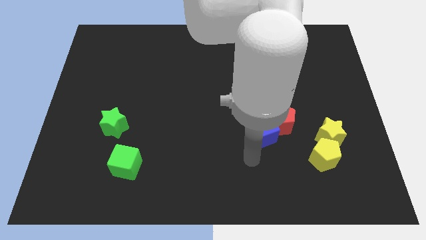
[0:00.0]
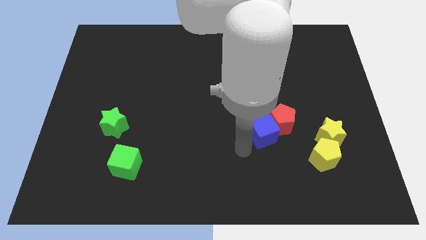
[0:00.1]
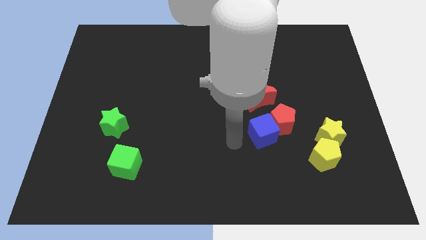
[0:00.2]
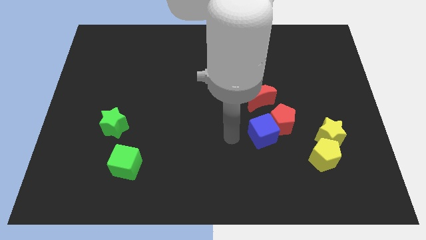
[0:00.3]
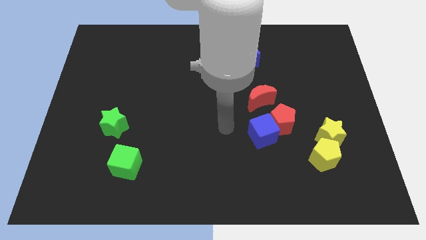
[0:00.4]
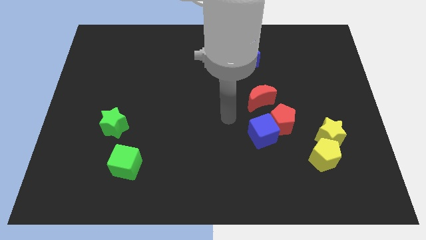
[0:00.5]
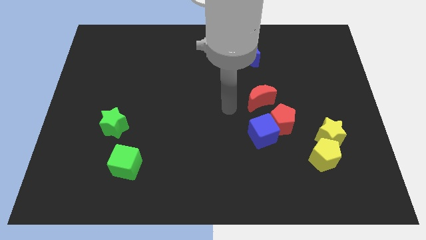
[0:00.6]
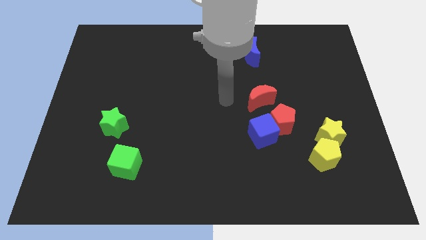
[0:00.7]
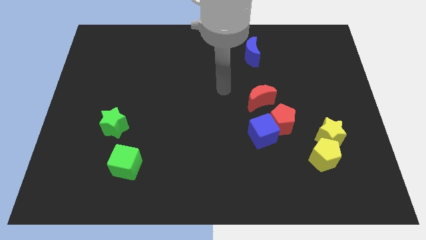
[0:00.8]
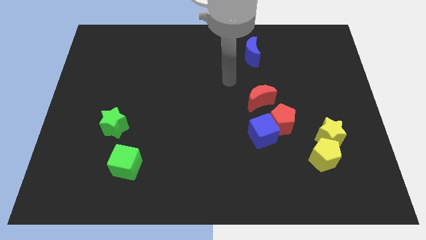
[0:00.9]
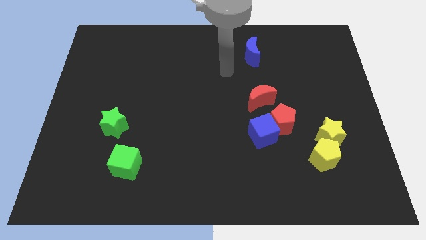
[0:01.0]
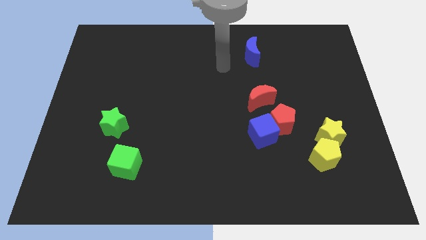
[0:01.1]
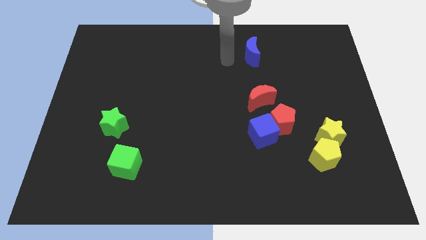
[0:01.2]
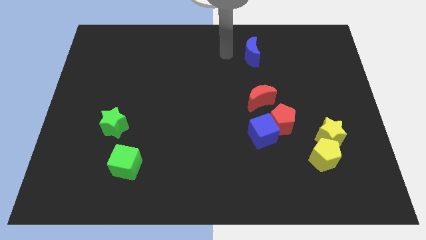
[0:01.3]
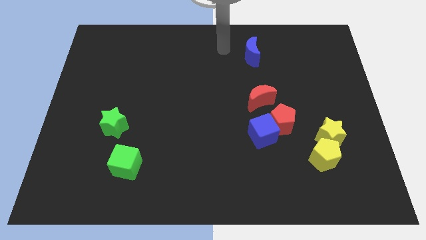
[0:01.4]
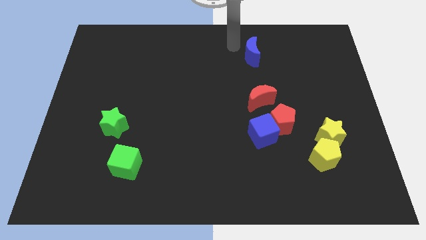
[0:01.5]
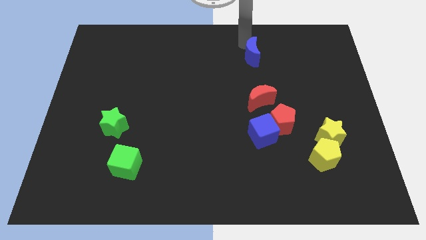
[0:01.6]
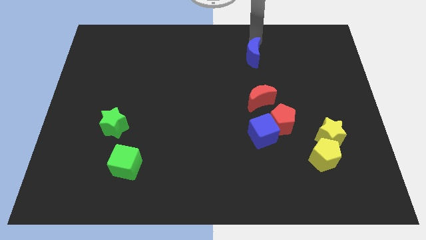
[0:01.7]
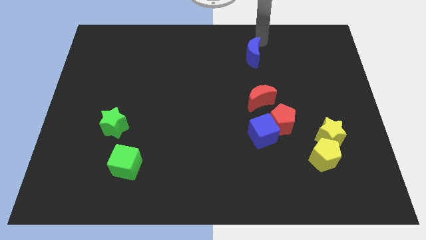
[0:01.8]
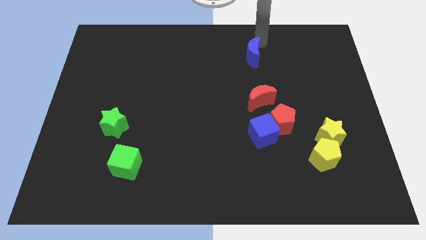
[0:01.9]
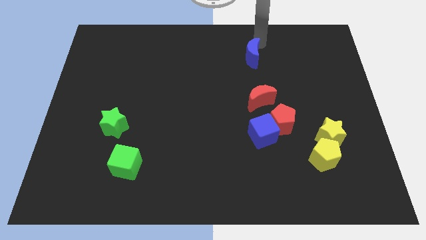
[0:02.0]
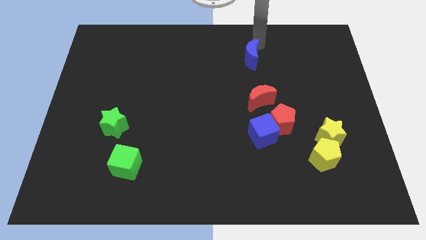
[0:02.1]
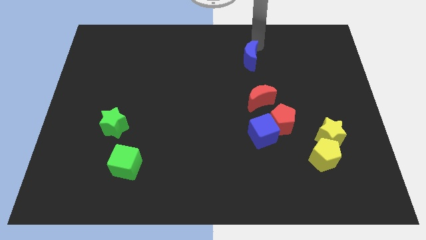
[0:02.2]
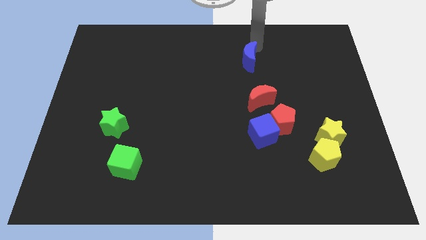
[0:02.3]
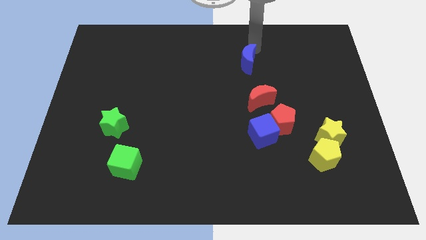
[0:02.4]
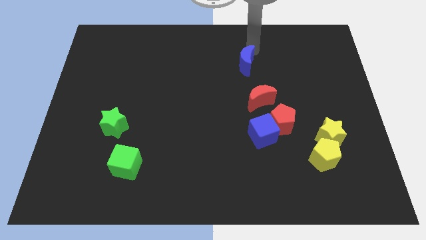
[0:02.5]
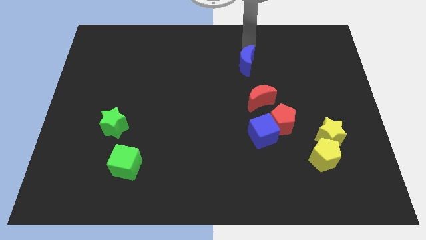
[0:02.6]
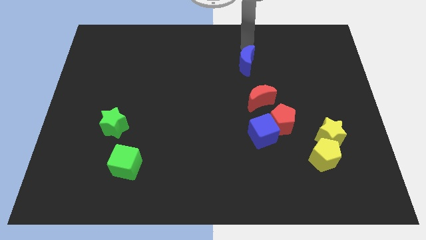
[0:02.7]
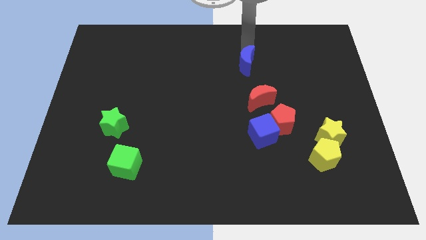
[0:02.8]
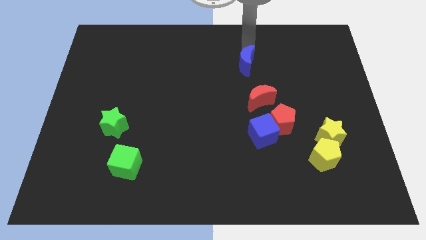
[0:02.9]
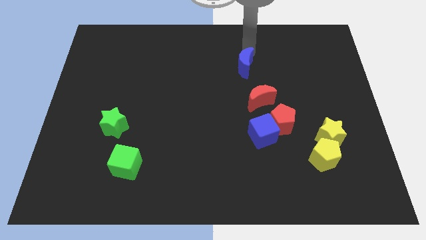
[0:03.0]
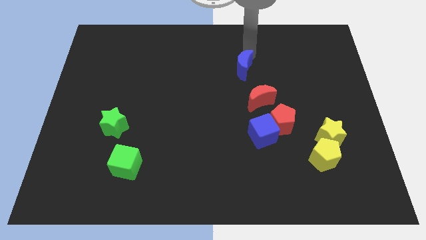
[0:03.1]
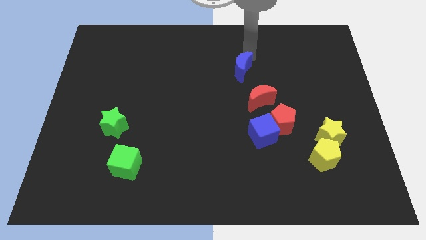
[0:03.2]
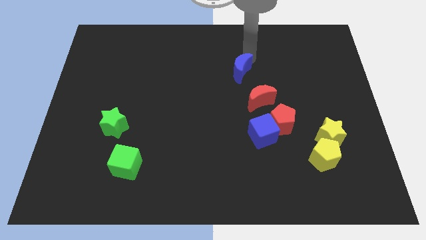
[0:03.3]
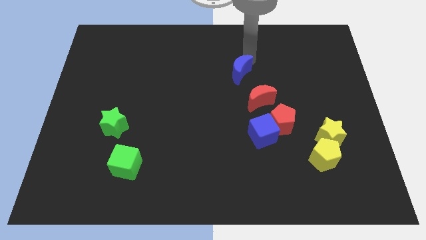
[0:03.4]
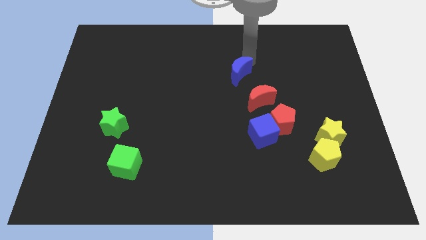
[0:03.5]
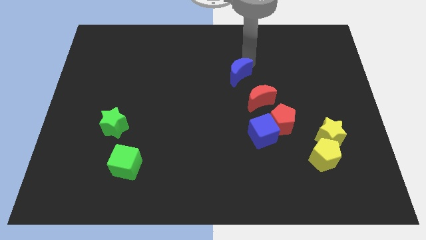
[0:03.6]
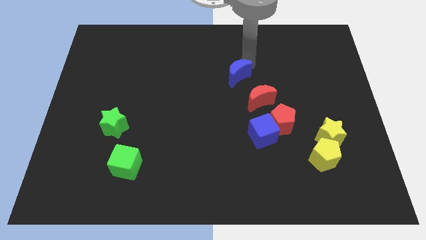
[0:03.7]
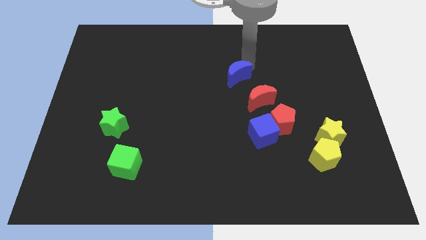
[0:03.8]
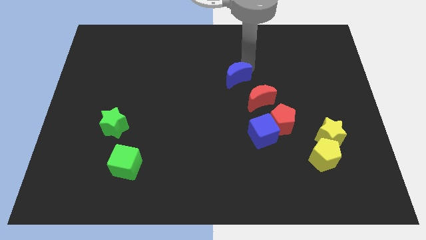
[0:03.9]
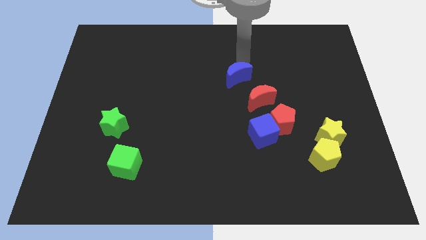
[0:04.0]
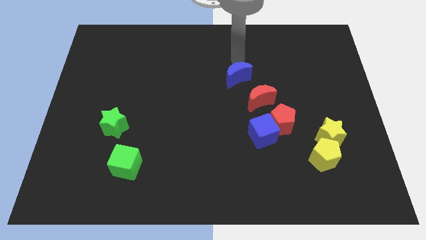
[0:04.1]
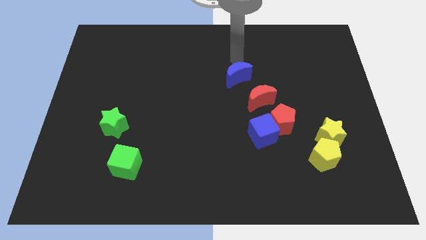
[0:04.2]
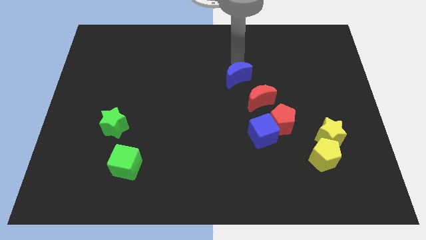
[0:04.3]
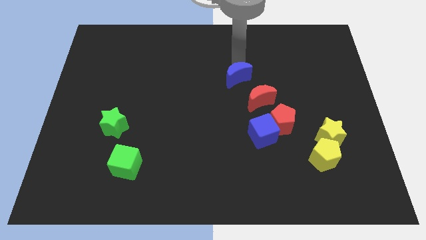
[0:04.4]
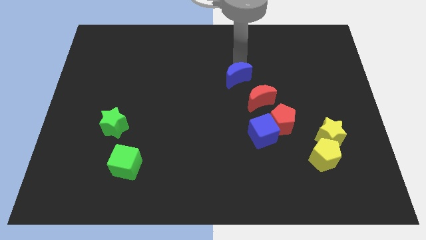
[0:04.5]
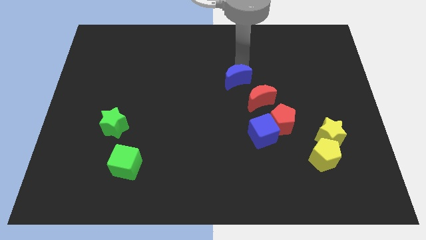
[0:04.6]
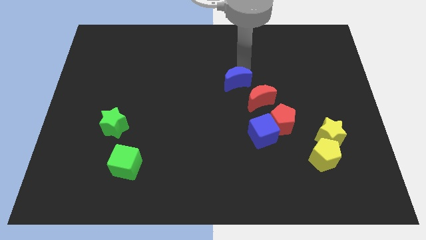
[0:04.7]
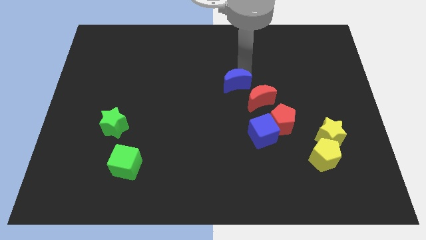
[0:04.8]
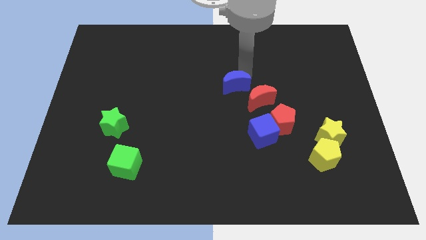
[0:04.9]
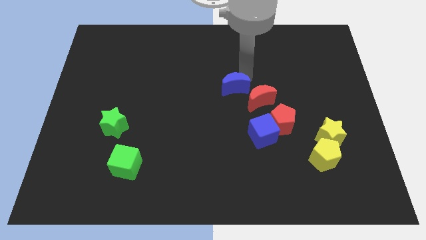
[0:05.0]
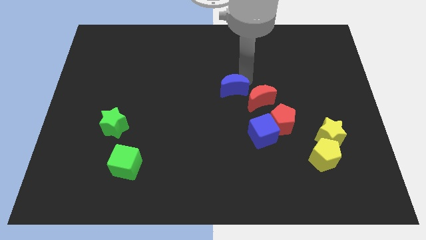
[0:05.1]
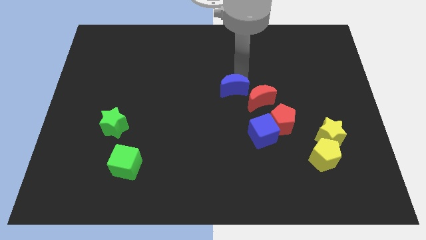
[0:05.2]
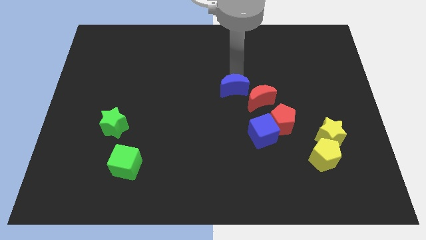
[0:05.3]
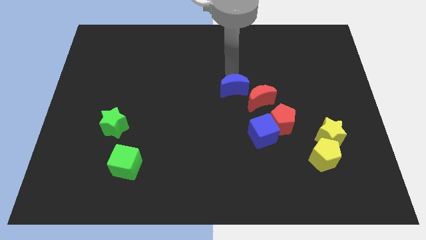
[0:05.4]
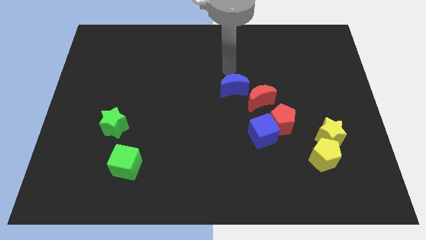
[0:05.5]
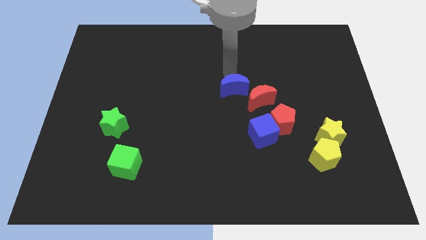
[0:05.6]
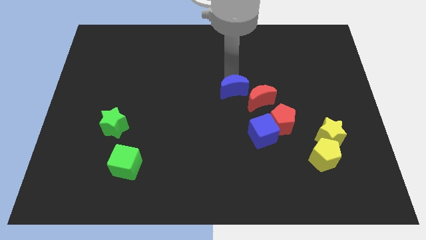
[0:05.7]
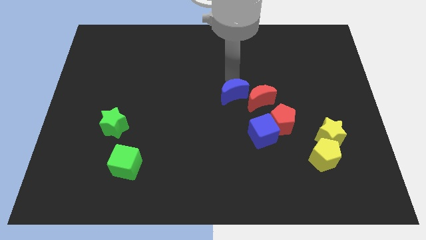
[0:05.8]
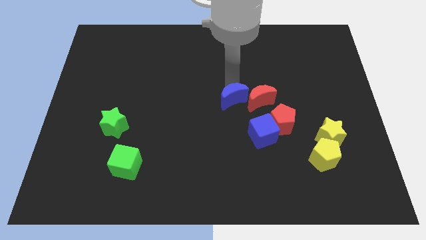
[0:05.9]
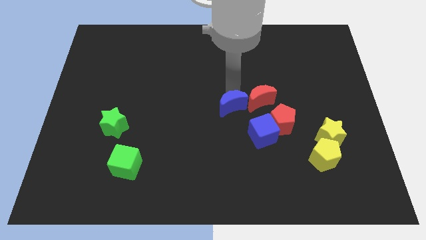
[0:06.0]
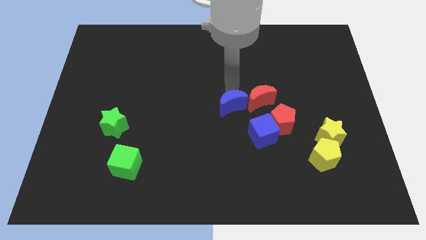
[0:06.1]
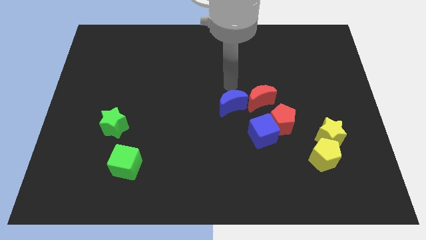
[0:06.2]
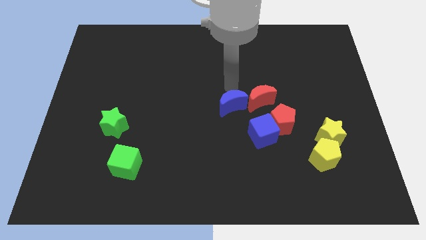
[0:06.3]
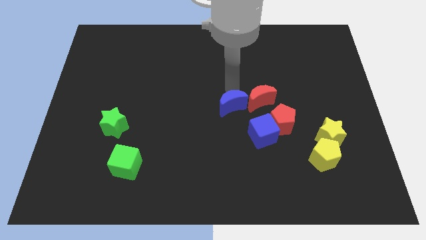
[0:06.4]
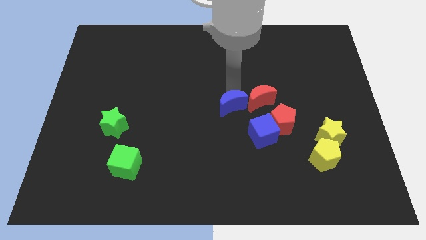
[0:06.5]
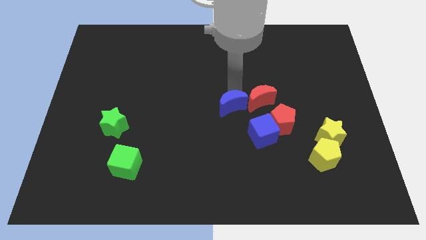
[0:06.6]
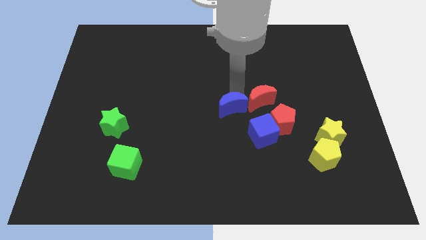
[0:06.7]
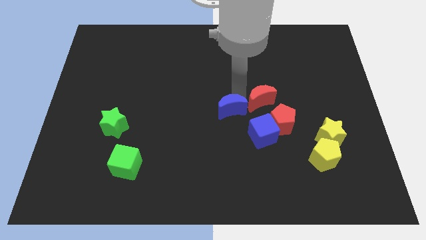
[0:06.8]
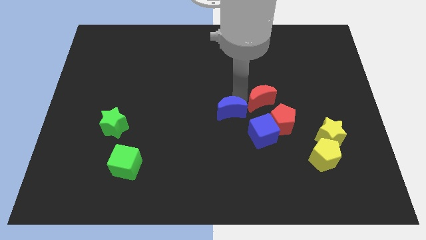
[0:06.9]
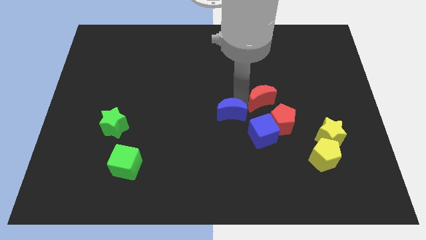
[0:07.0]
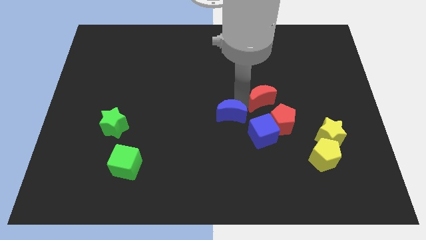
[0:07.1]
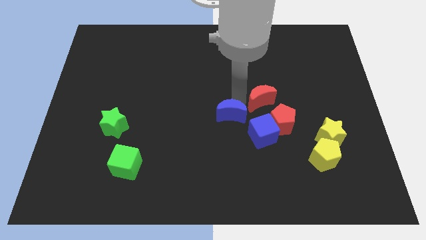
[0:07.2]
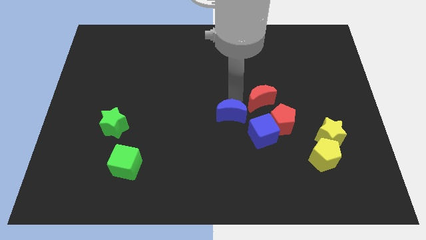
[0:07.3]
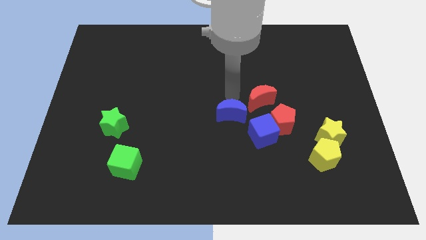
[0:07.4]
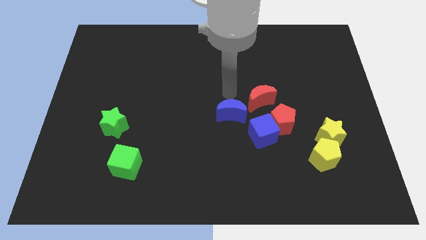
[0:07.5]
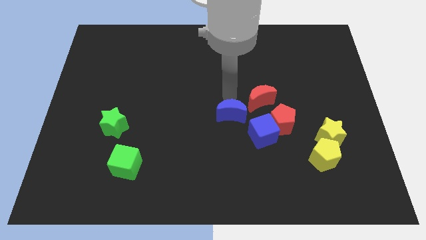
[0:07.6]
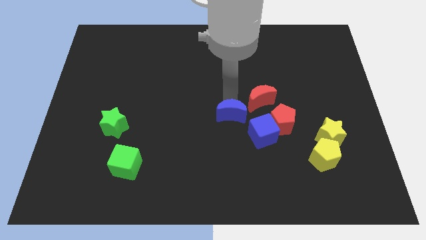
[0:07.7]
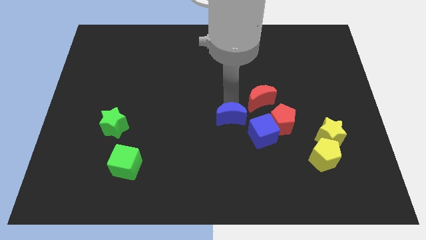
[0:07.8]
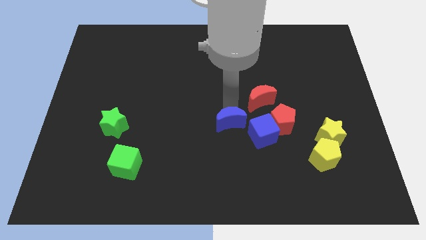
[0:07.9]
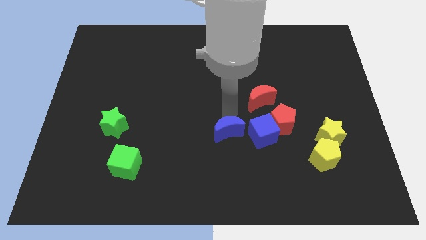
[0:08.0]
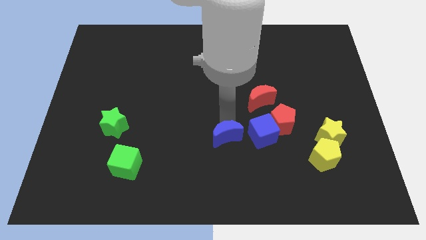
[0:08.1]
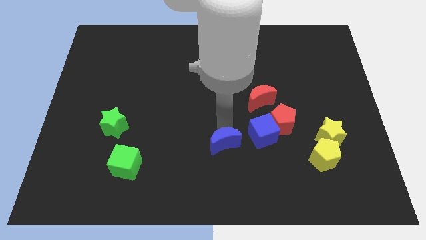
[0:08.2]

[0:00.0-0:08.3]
push the blue moon to the bottom left of the blue cube
